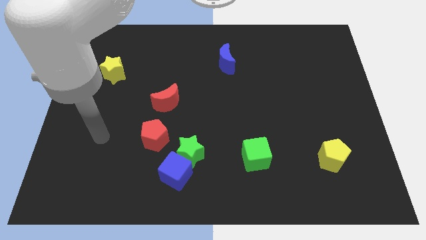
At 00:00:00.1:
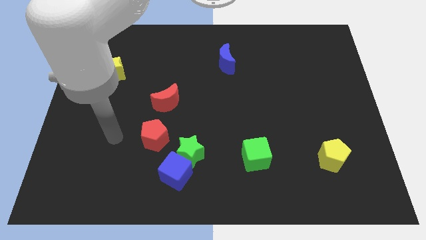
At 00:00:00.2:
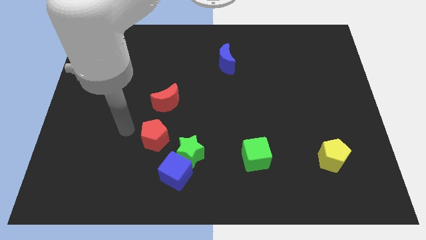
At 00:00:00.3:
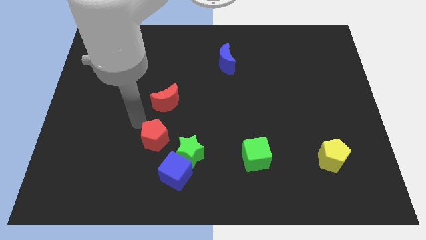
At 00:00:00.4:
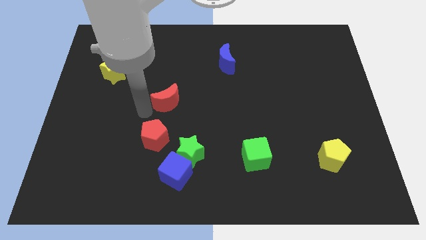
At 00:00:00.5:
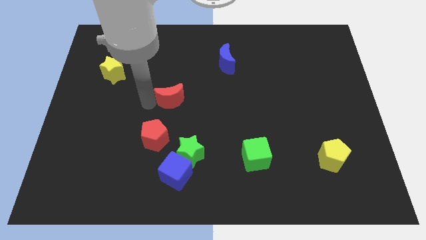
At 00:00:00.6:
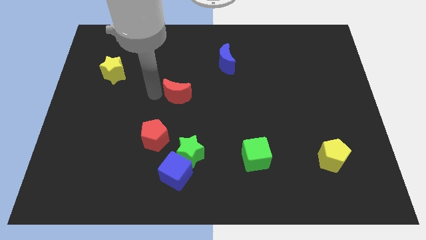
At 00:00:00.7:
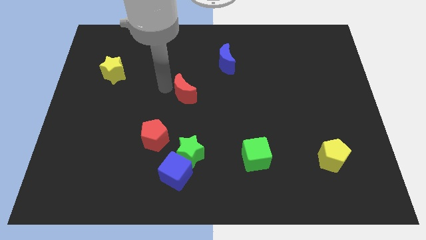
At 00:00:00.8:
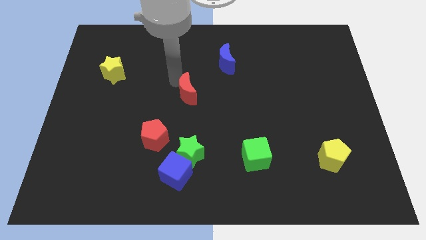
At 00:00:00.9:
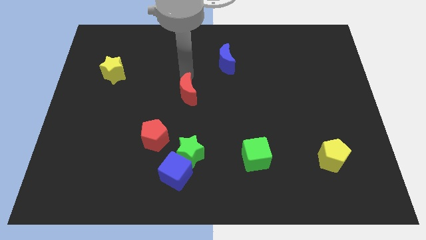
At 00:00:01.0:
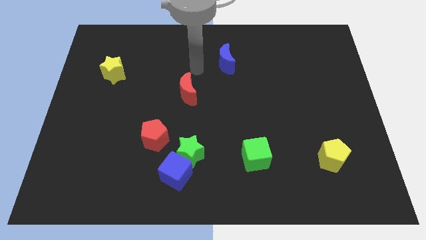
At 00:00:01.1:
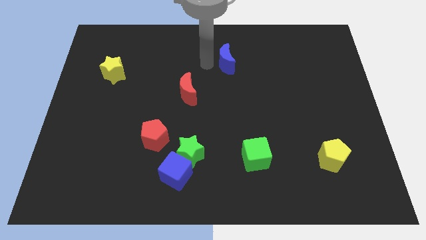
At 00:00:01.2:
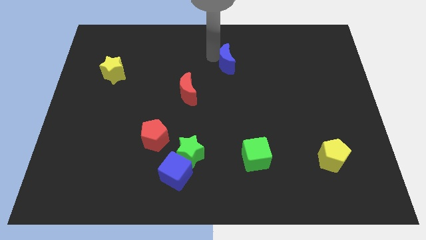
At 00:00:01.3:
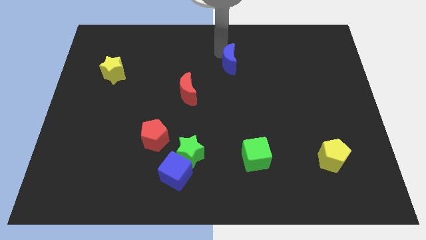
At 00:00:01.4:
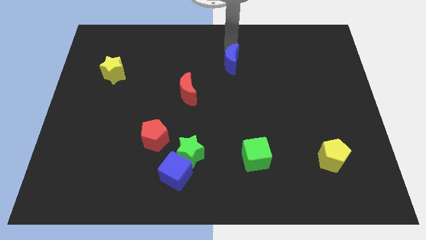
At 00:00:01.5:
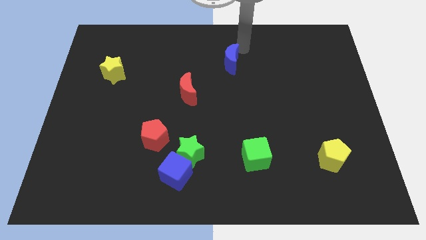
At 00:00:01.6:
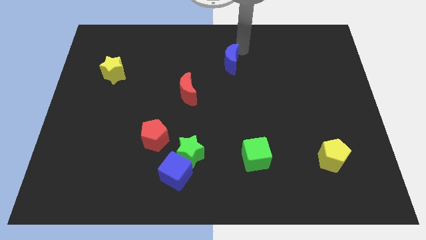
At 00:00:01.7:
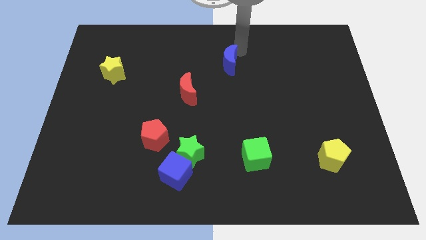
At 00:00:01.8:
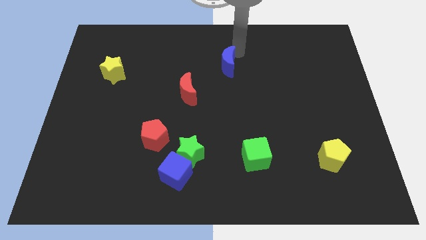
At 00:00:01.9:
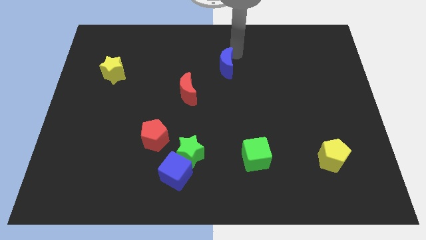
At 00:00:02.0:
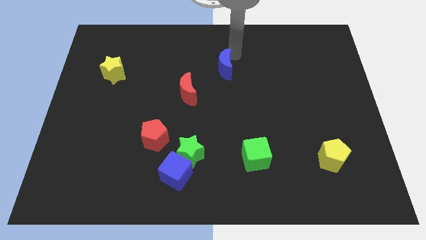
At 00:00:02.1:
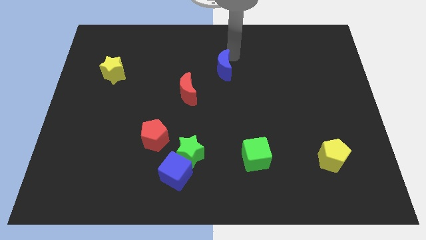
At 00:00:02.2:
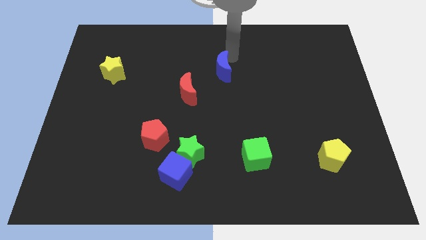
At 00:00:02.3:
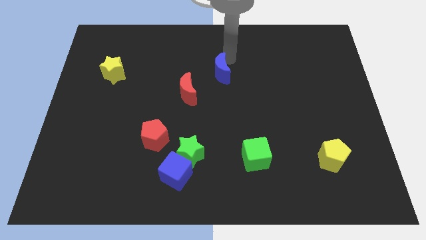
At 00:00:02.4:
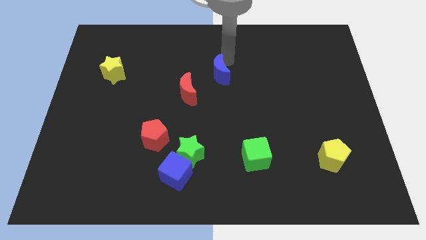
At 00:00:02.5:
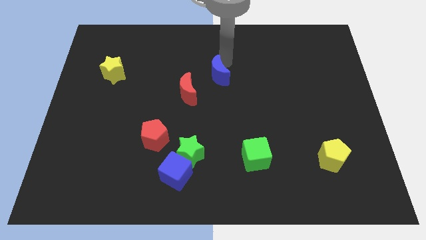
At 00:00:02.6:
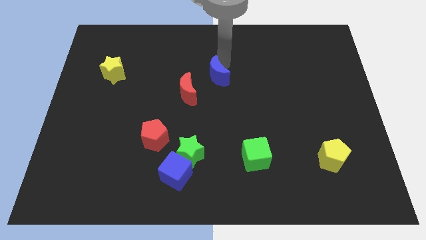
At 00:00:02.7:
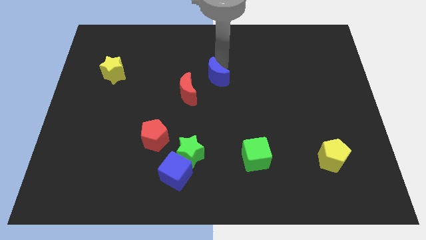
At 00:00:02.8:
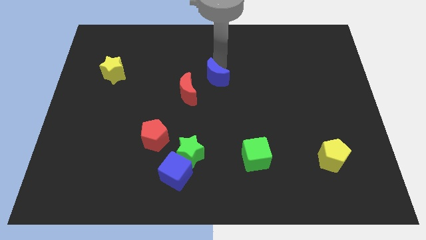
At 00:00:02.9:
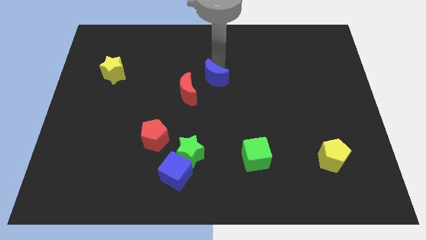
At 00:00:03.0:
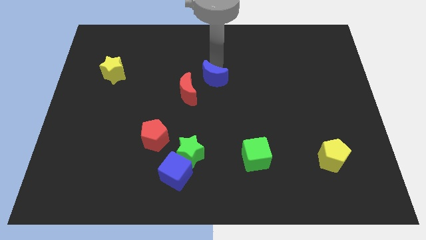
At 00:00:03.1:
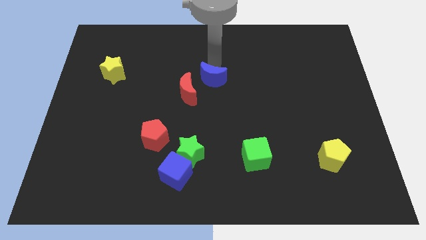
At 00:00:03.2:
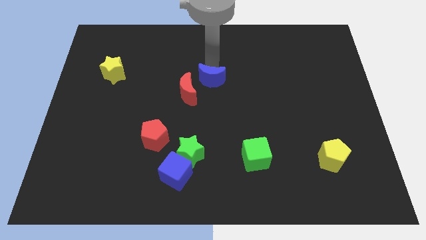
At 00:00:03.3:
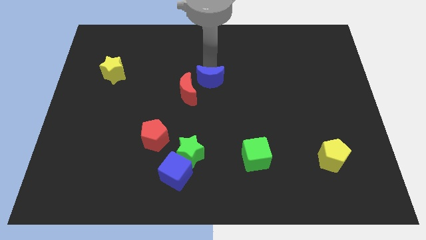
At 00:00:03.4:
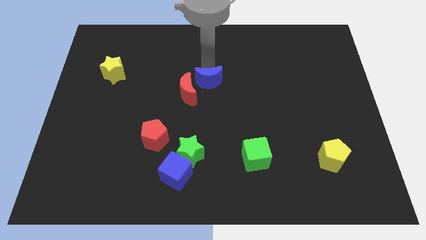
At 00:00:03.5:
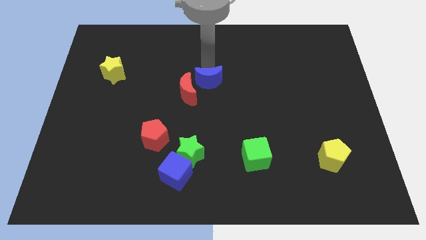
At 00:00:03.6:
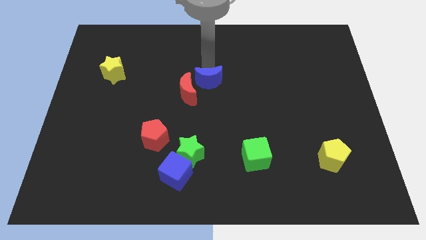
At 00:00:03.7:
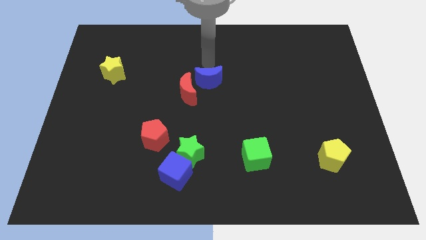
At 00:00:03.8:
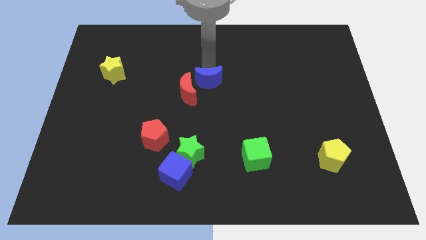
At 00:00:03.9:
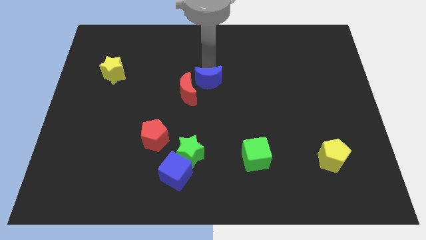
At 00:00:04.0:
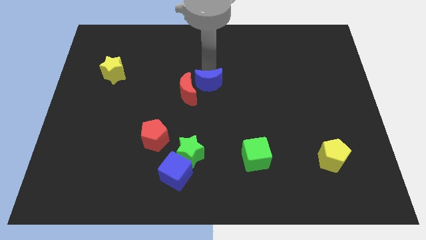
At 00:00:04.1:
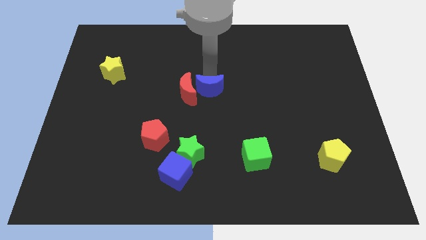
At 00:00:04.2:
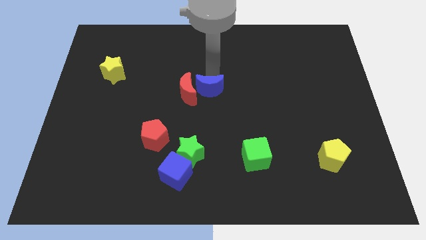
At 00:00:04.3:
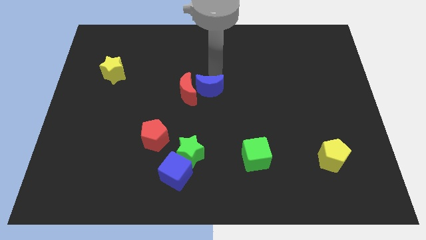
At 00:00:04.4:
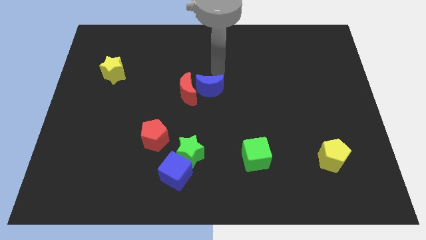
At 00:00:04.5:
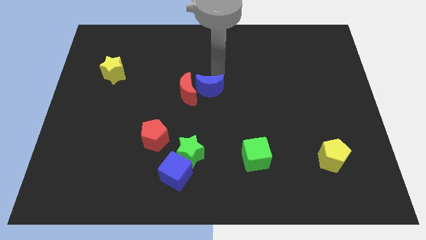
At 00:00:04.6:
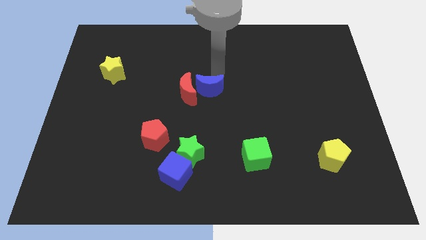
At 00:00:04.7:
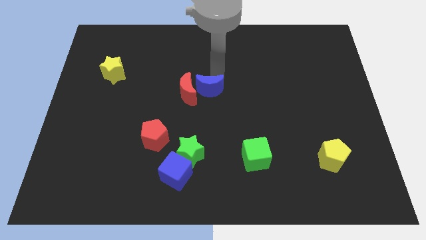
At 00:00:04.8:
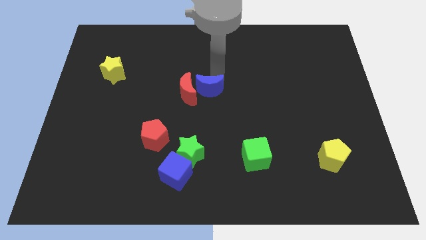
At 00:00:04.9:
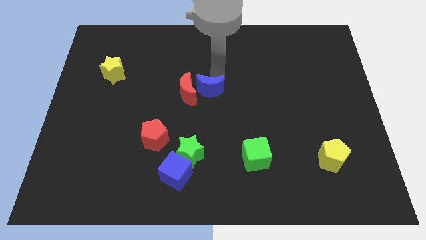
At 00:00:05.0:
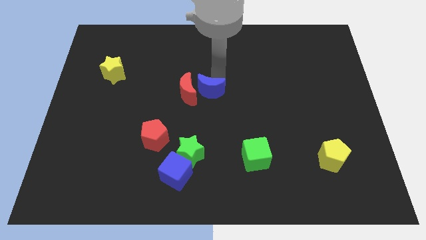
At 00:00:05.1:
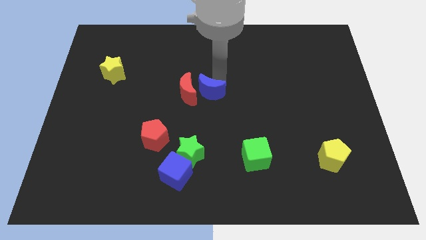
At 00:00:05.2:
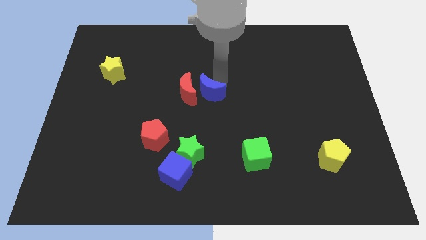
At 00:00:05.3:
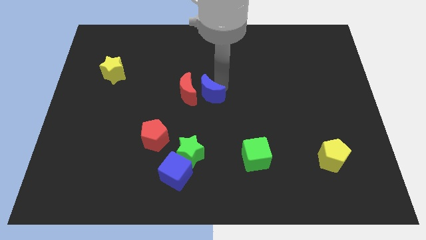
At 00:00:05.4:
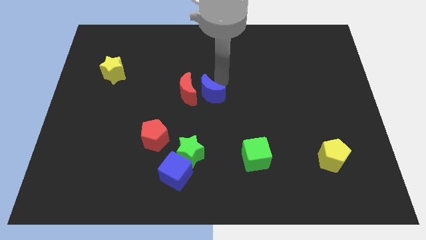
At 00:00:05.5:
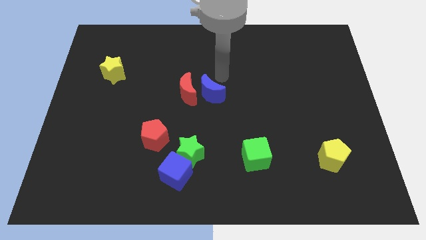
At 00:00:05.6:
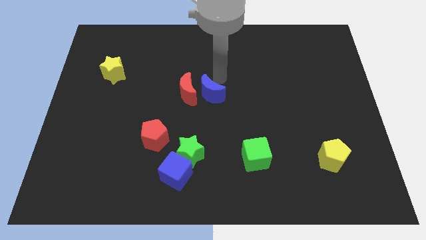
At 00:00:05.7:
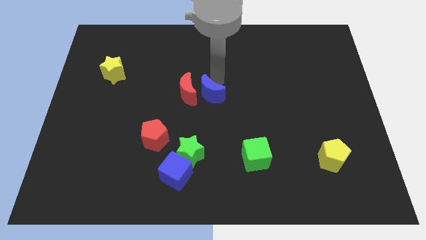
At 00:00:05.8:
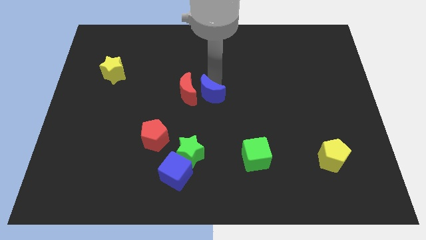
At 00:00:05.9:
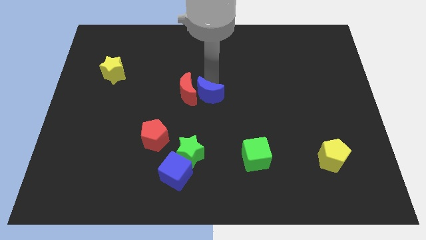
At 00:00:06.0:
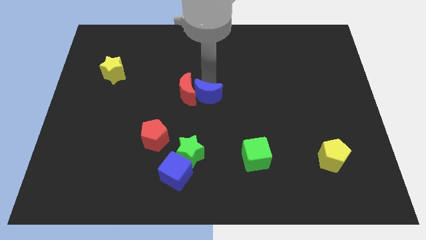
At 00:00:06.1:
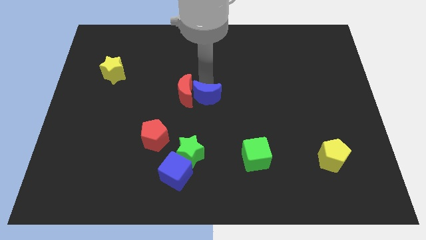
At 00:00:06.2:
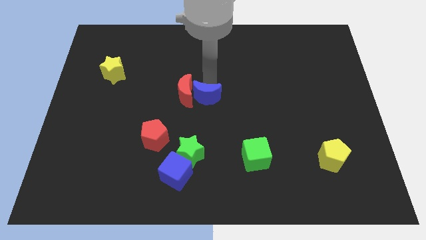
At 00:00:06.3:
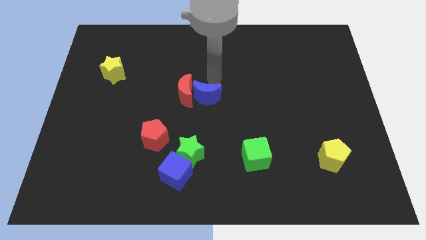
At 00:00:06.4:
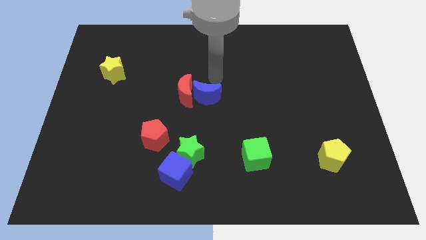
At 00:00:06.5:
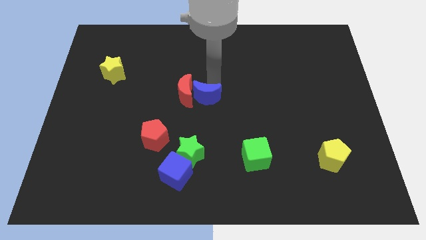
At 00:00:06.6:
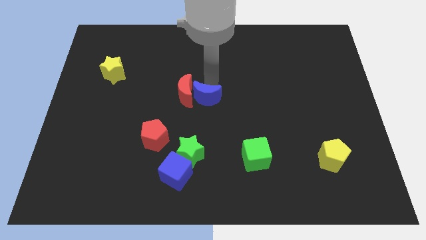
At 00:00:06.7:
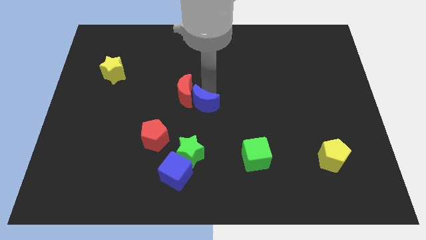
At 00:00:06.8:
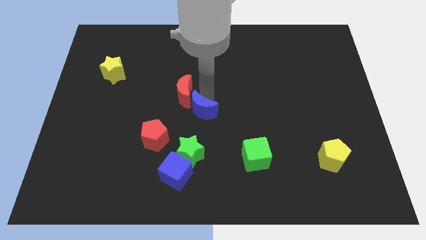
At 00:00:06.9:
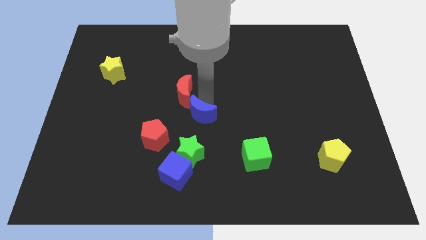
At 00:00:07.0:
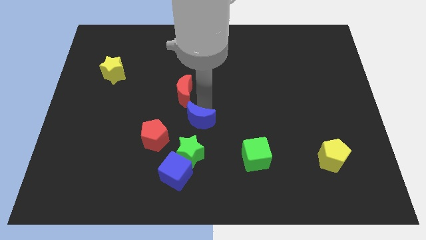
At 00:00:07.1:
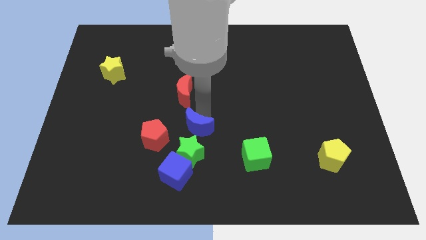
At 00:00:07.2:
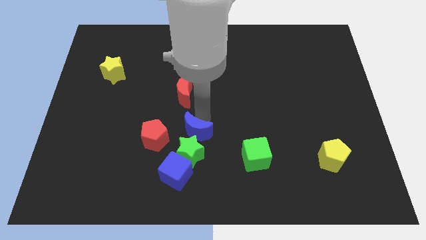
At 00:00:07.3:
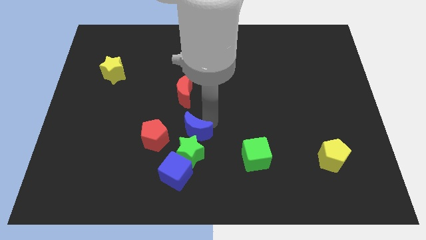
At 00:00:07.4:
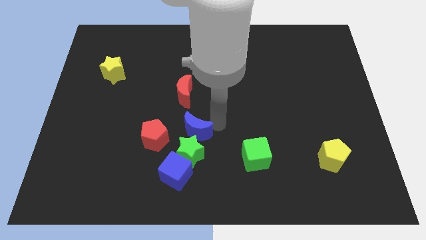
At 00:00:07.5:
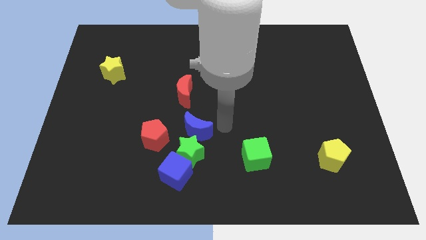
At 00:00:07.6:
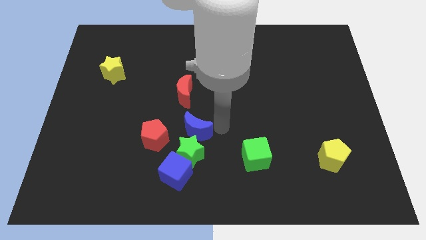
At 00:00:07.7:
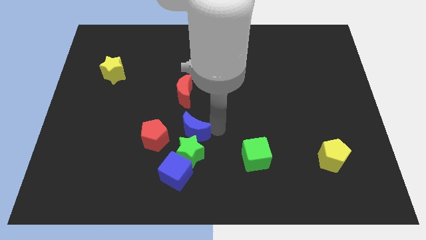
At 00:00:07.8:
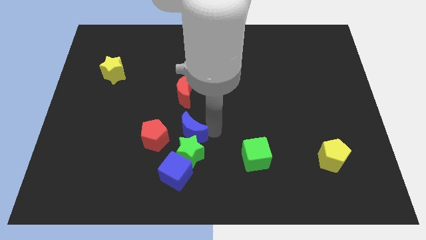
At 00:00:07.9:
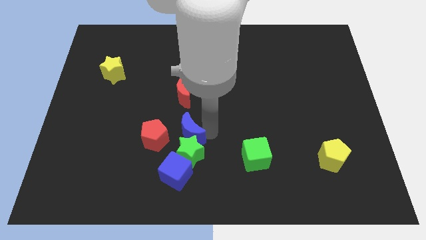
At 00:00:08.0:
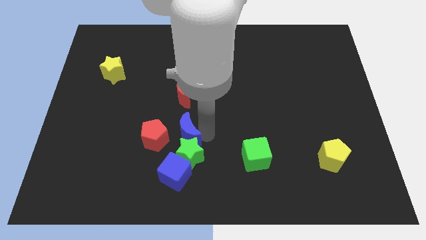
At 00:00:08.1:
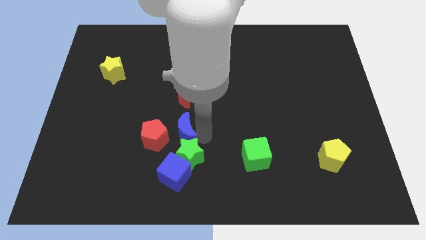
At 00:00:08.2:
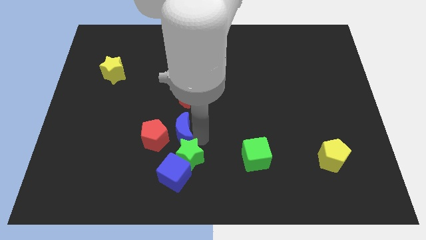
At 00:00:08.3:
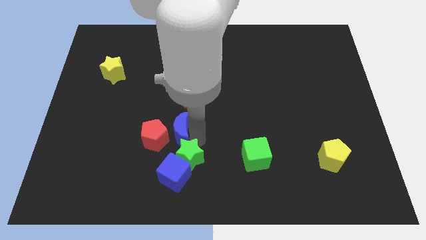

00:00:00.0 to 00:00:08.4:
put the blue moon to the red pentagon
